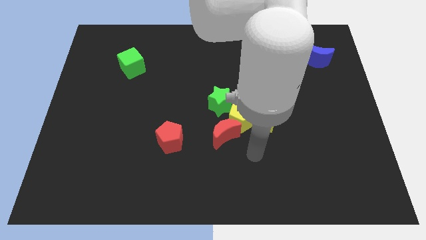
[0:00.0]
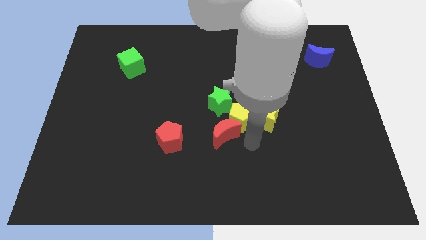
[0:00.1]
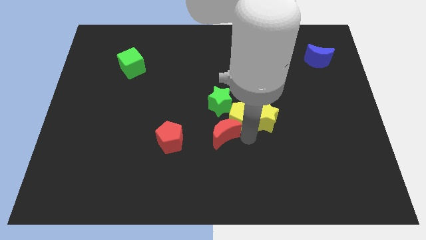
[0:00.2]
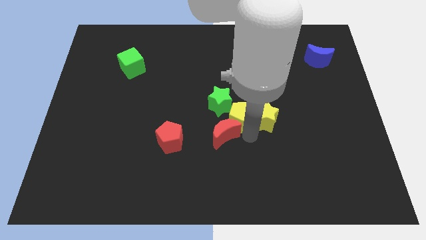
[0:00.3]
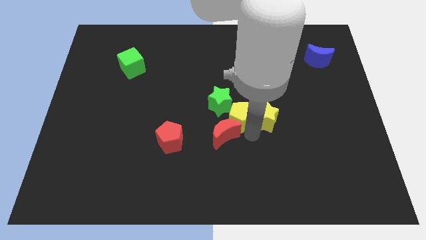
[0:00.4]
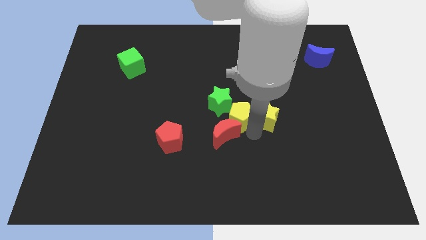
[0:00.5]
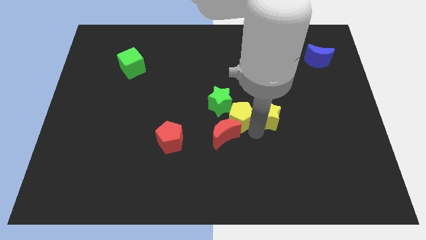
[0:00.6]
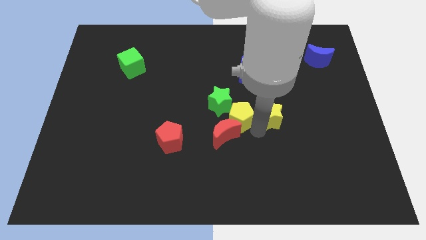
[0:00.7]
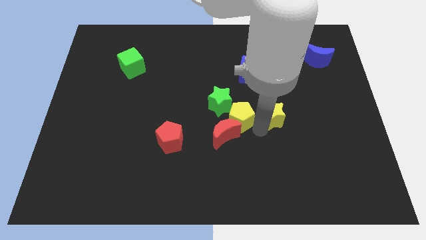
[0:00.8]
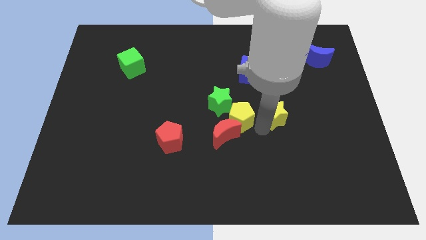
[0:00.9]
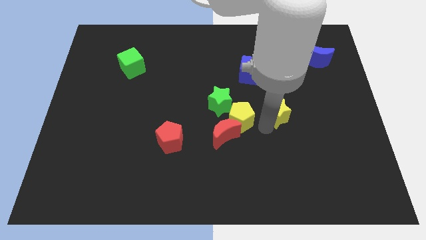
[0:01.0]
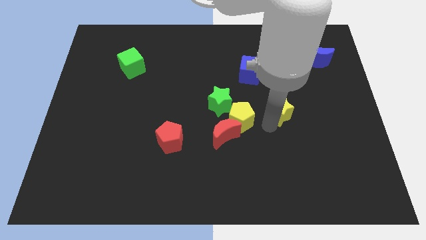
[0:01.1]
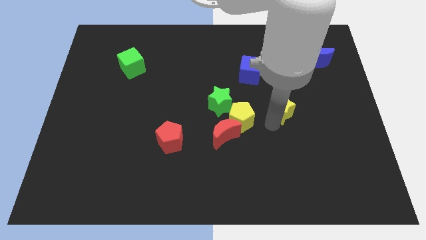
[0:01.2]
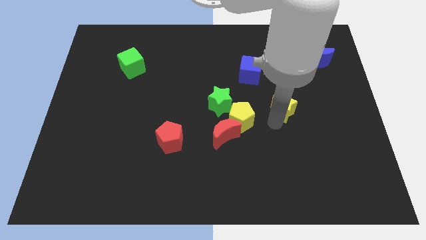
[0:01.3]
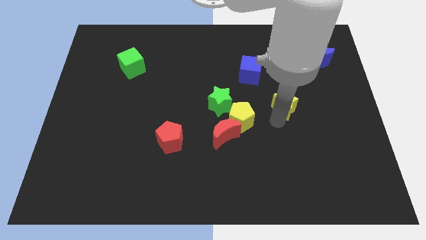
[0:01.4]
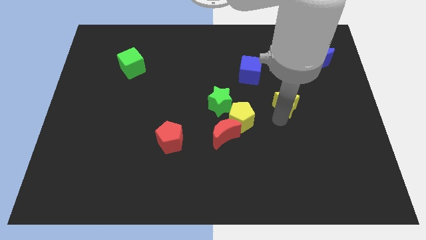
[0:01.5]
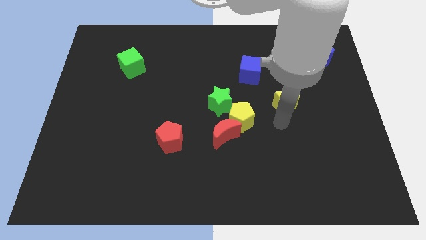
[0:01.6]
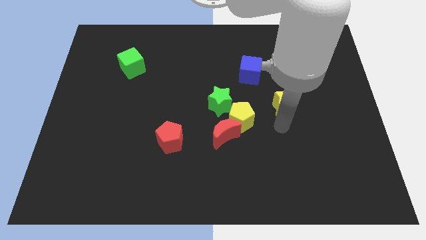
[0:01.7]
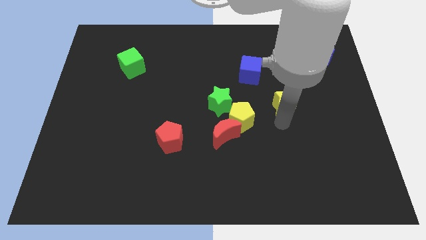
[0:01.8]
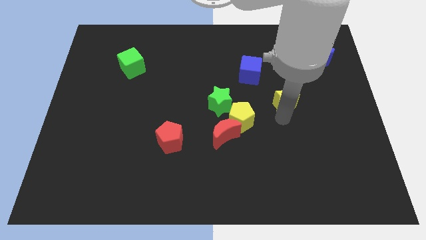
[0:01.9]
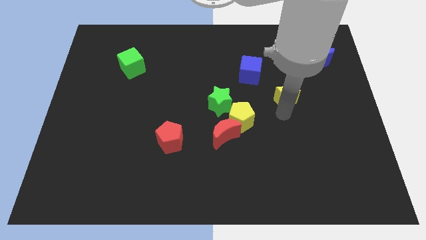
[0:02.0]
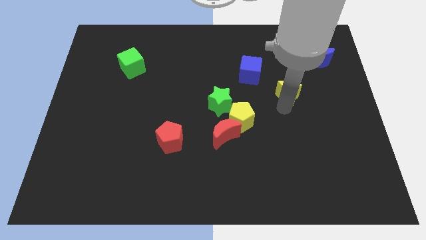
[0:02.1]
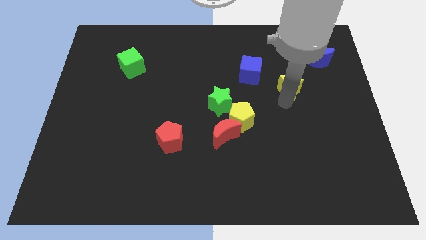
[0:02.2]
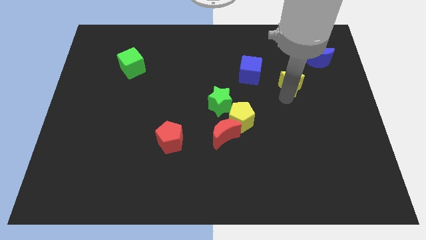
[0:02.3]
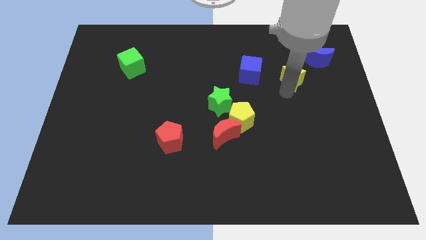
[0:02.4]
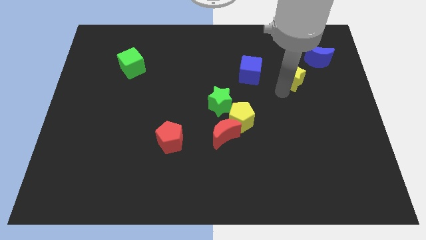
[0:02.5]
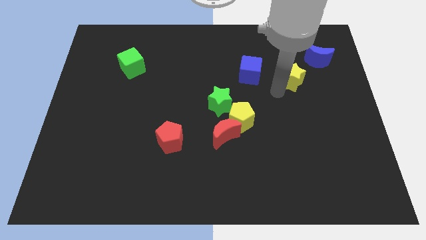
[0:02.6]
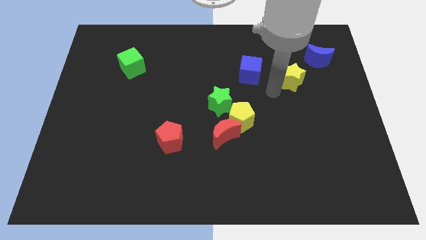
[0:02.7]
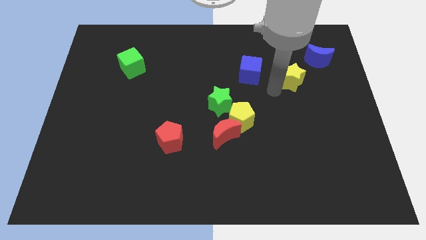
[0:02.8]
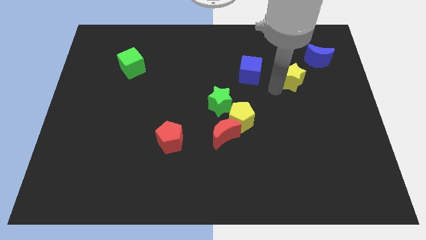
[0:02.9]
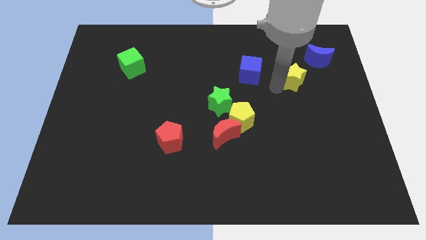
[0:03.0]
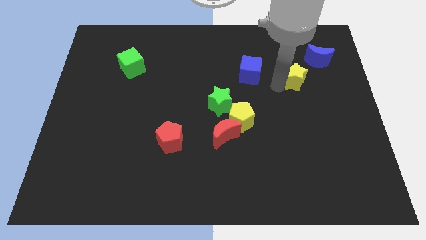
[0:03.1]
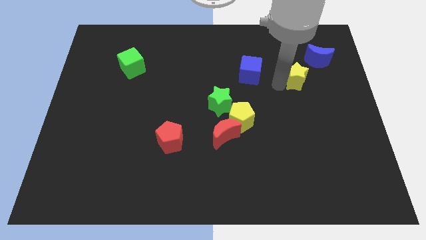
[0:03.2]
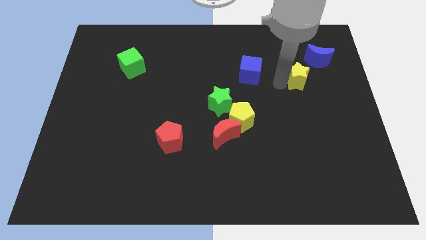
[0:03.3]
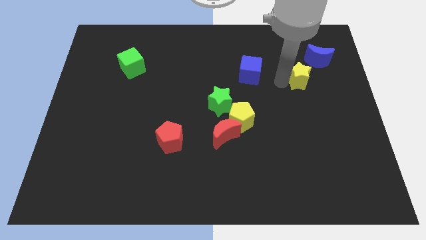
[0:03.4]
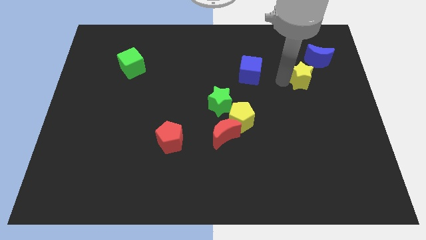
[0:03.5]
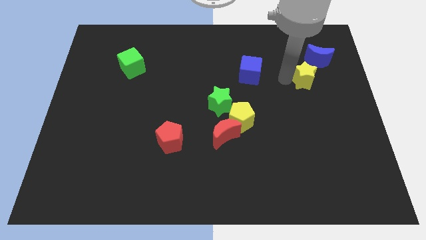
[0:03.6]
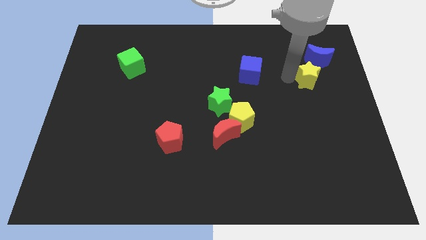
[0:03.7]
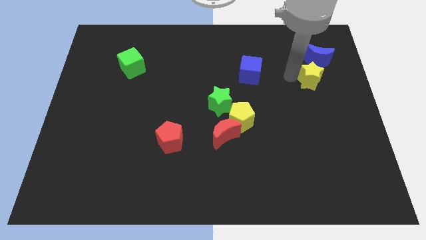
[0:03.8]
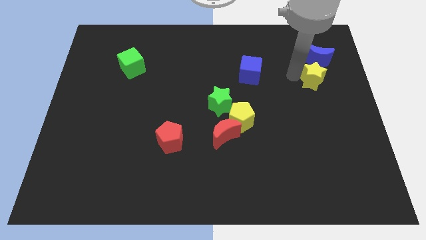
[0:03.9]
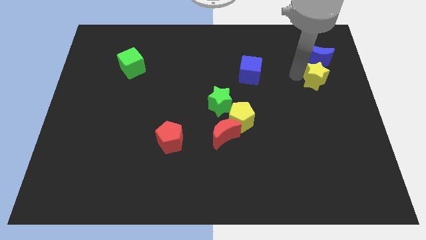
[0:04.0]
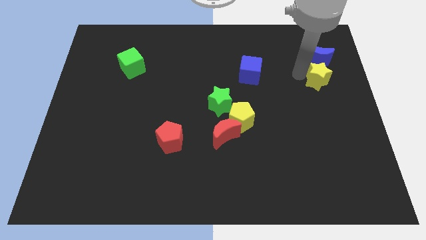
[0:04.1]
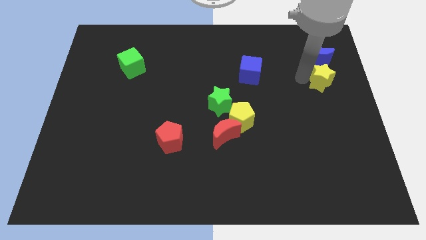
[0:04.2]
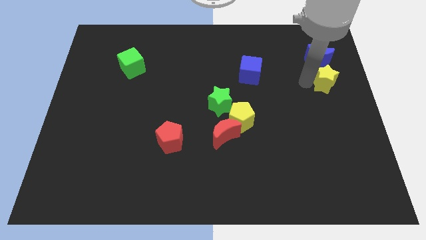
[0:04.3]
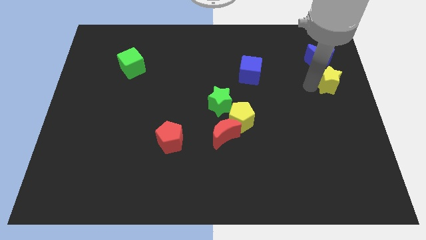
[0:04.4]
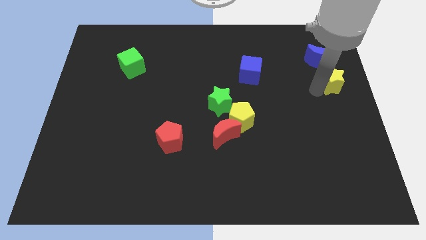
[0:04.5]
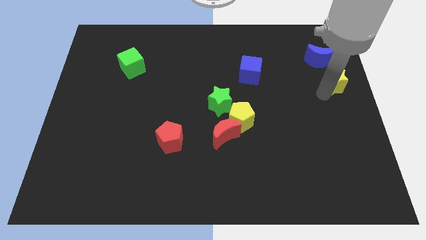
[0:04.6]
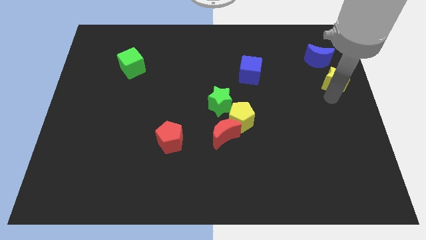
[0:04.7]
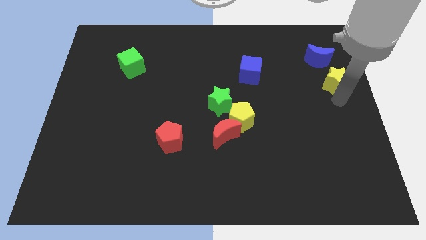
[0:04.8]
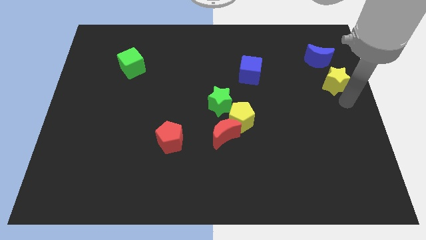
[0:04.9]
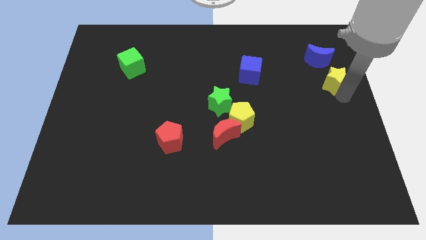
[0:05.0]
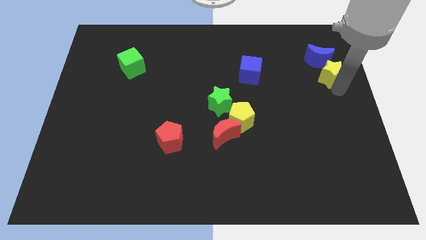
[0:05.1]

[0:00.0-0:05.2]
push the yellow star to the blue moon

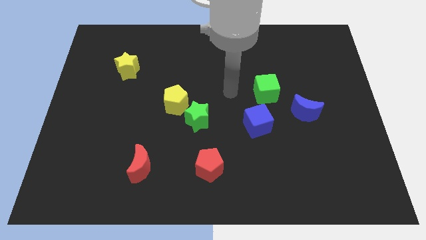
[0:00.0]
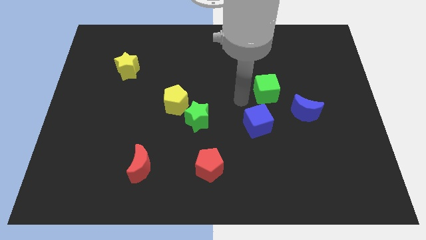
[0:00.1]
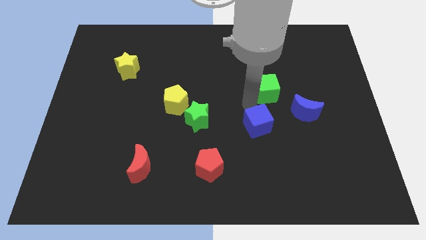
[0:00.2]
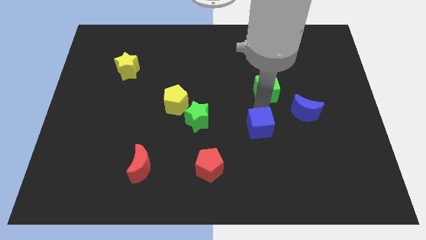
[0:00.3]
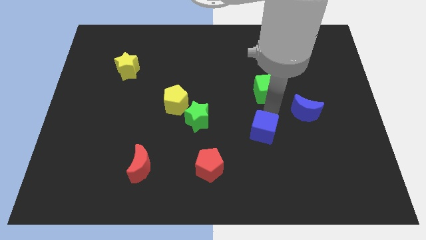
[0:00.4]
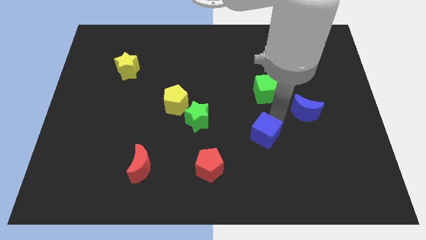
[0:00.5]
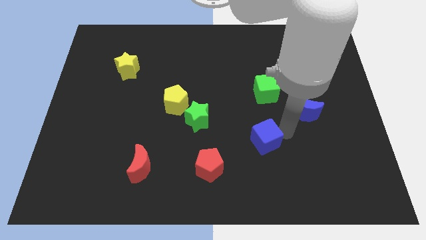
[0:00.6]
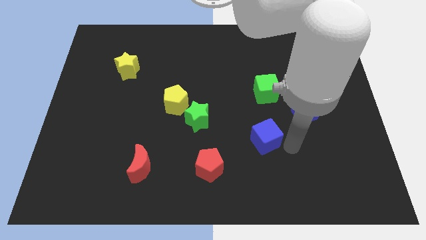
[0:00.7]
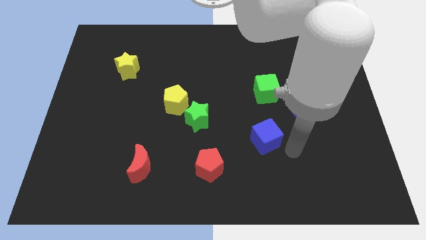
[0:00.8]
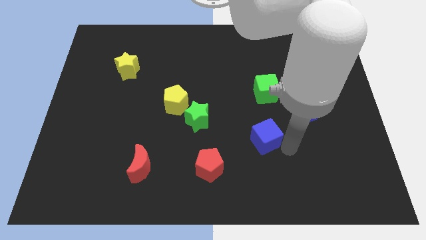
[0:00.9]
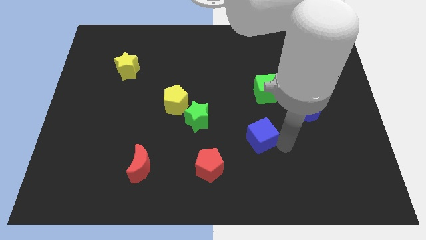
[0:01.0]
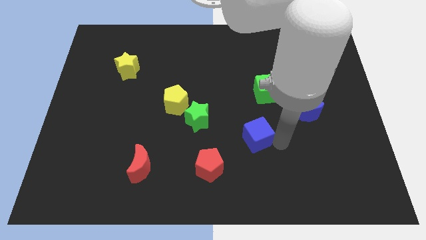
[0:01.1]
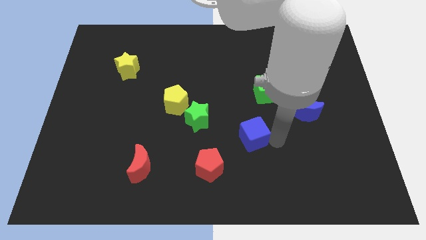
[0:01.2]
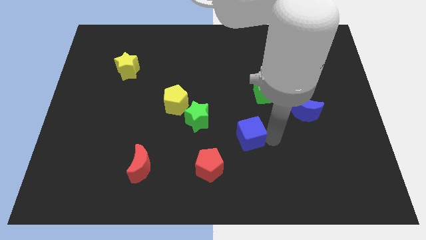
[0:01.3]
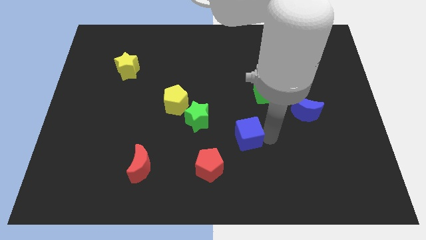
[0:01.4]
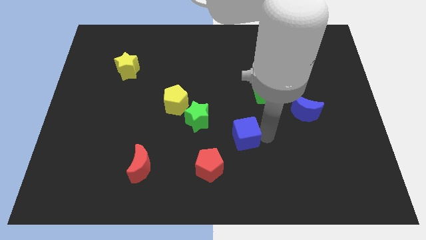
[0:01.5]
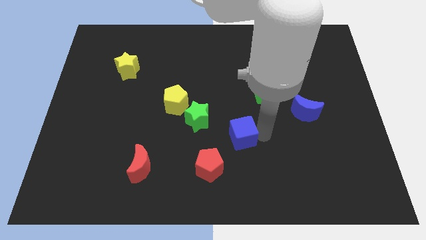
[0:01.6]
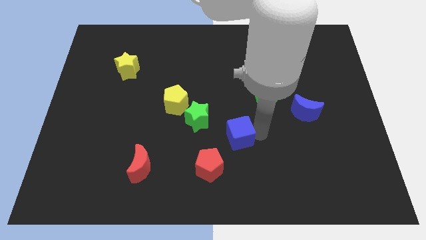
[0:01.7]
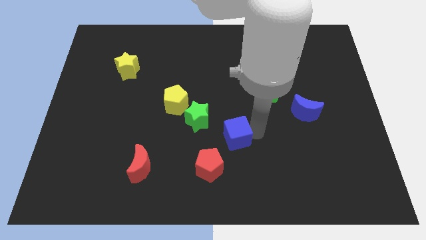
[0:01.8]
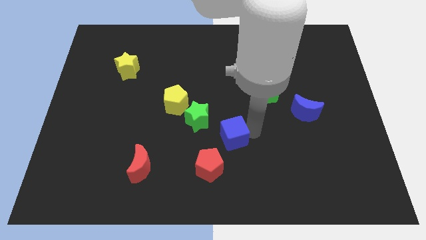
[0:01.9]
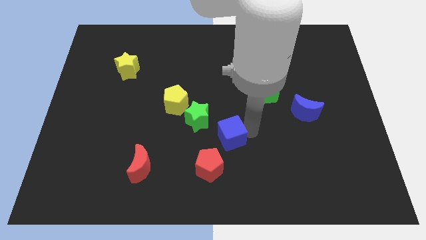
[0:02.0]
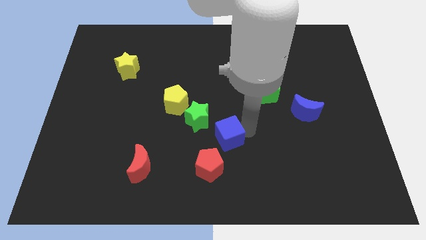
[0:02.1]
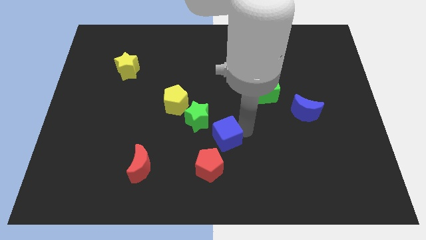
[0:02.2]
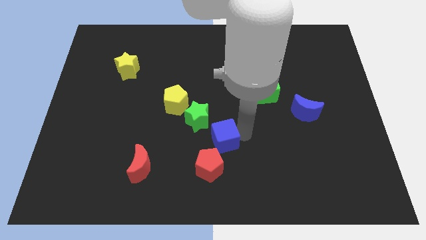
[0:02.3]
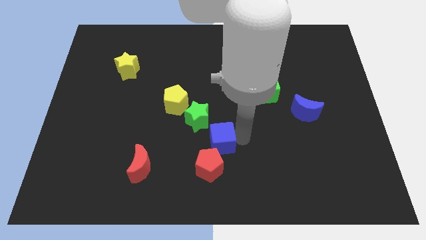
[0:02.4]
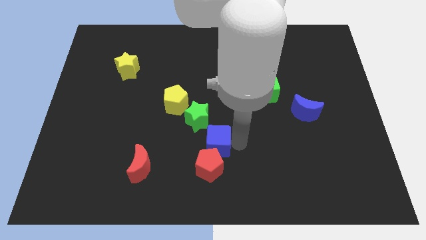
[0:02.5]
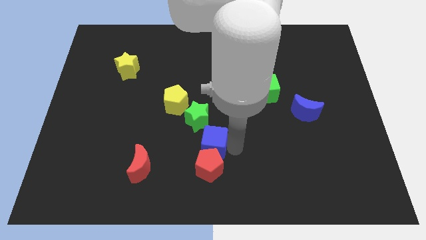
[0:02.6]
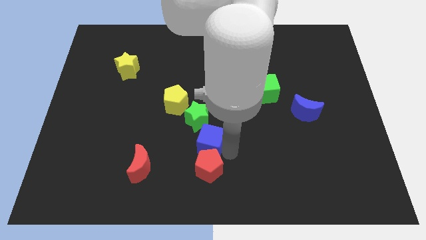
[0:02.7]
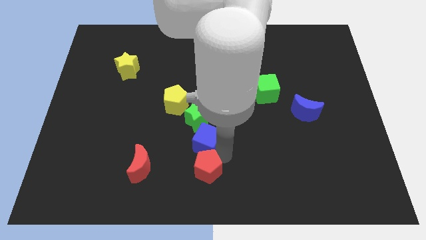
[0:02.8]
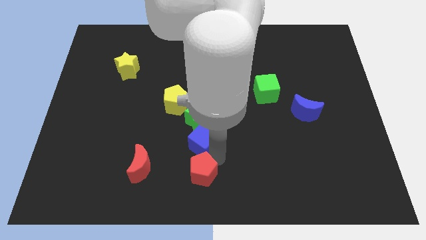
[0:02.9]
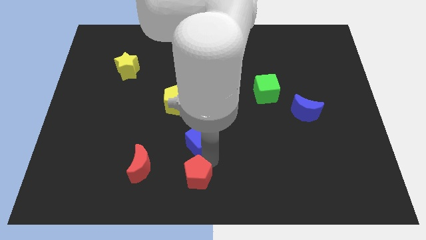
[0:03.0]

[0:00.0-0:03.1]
move the blue cube to the green star
